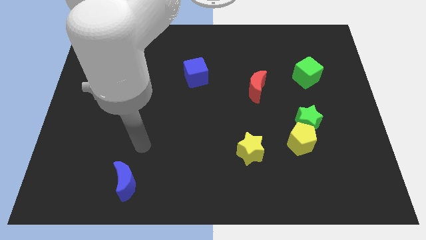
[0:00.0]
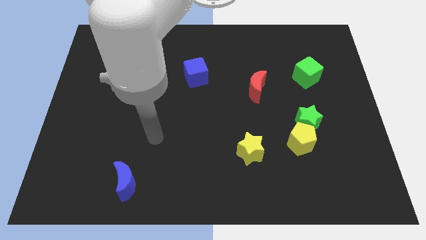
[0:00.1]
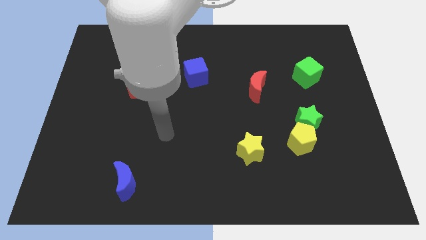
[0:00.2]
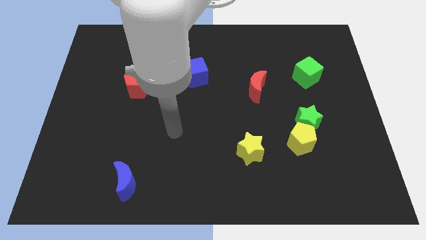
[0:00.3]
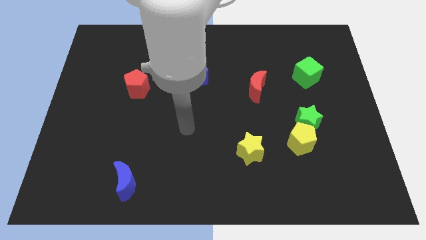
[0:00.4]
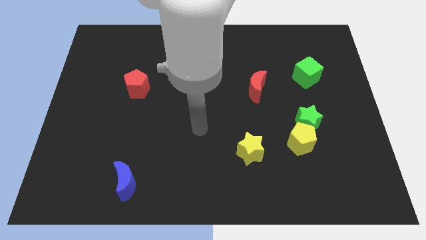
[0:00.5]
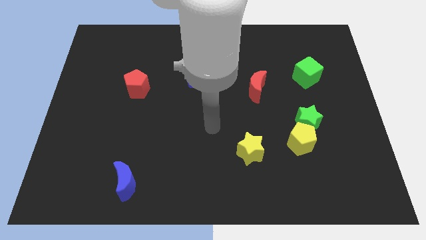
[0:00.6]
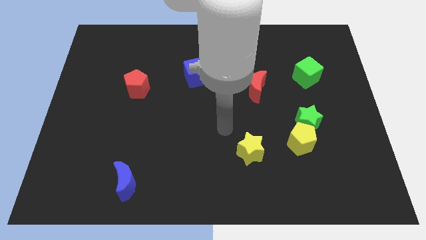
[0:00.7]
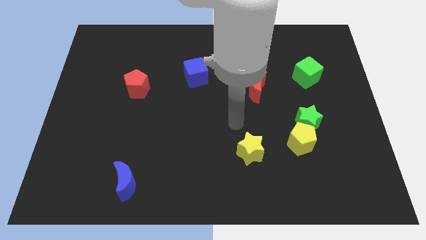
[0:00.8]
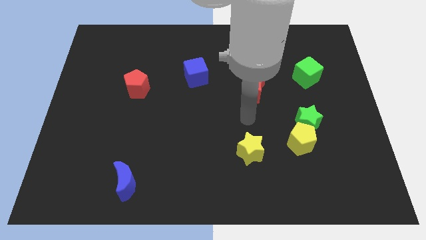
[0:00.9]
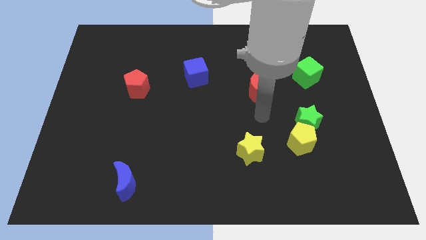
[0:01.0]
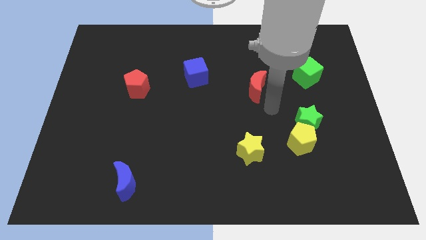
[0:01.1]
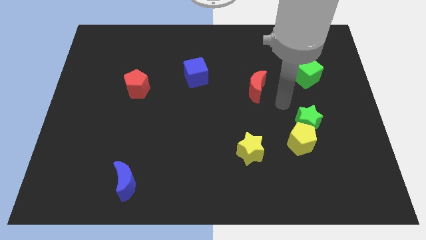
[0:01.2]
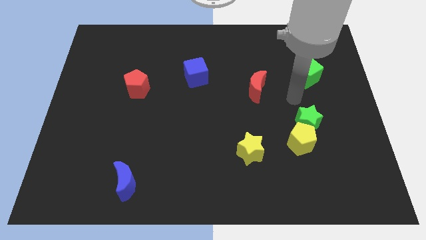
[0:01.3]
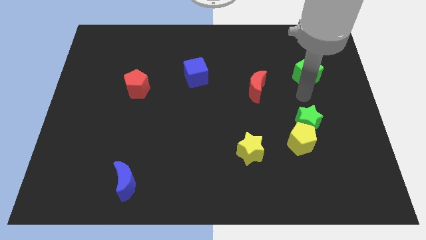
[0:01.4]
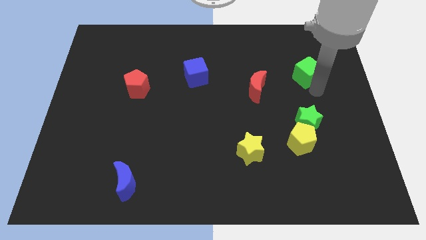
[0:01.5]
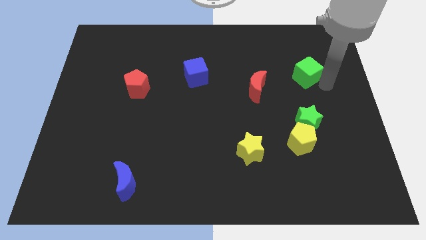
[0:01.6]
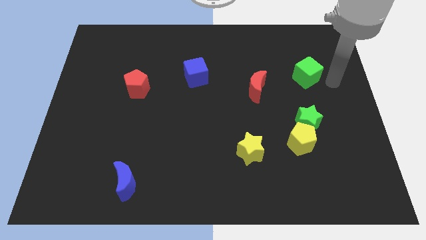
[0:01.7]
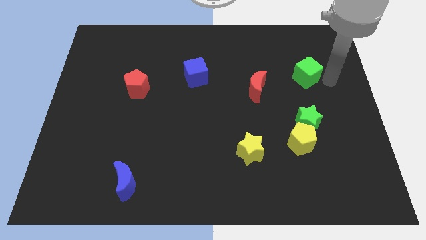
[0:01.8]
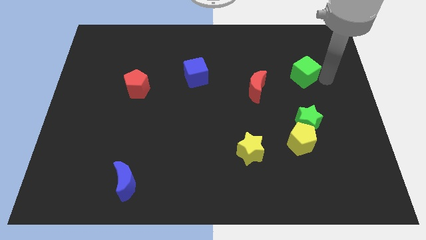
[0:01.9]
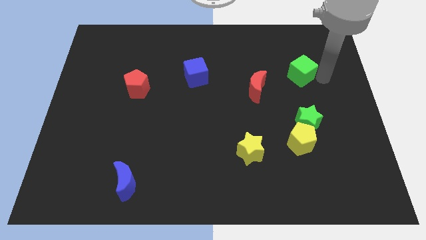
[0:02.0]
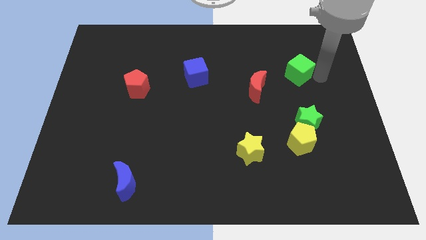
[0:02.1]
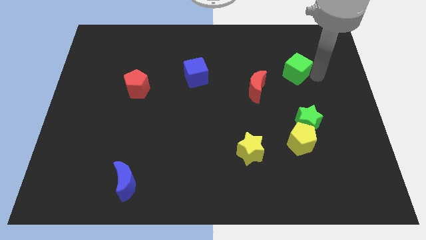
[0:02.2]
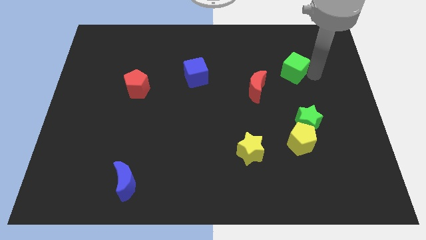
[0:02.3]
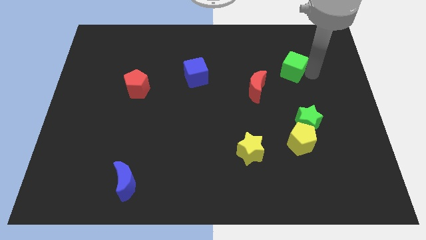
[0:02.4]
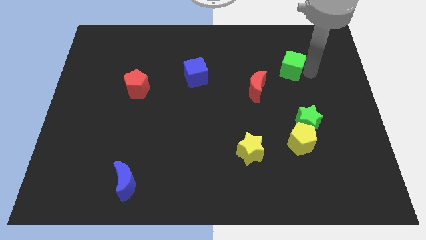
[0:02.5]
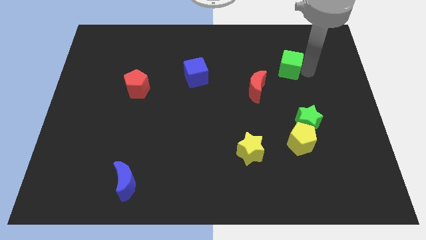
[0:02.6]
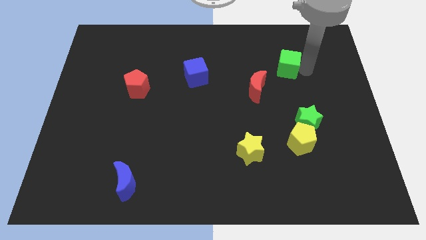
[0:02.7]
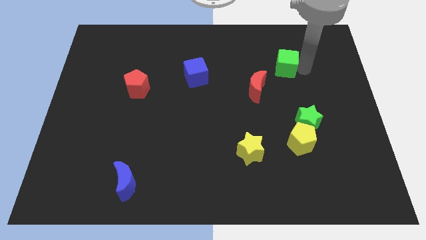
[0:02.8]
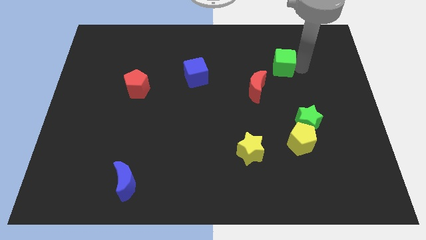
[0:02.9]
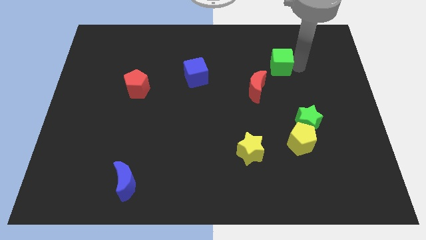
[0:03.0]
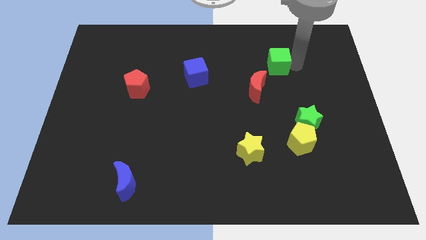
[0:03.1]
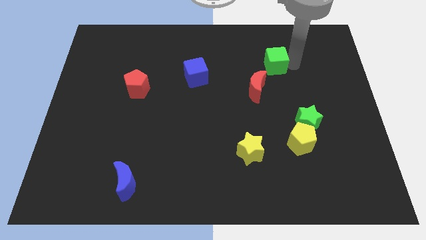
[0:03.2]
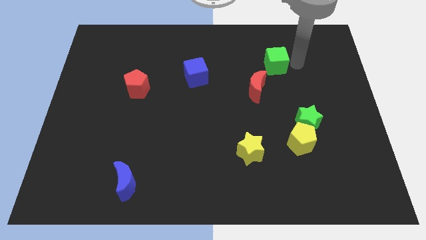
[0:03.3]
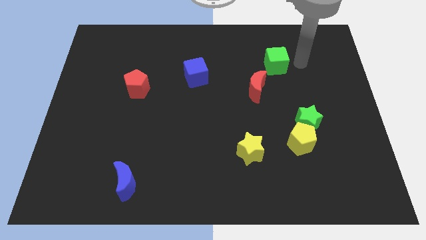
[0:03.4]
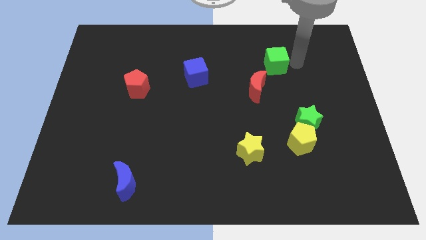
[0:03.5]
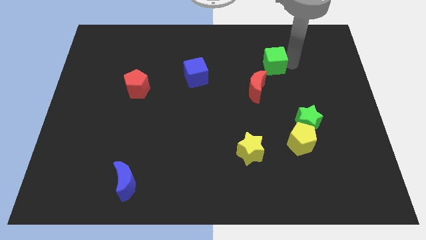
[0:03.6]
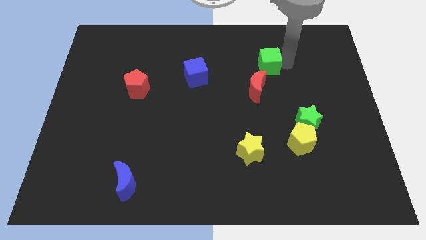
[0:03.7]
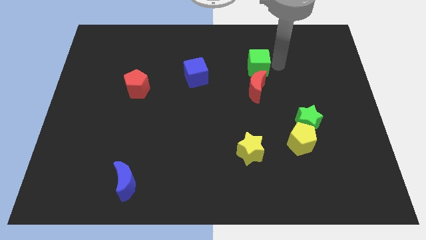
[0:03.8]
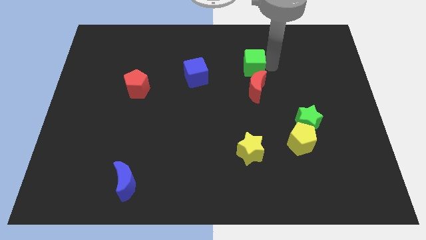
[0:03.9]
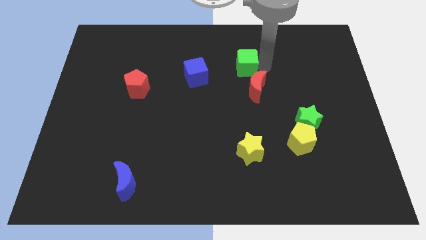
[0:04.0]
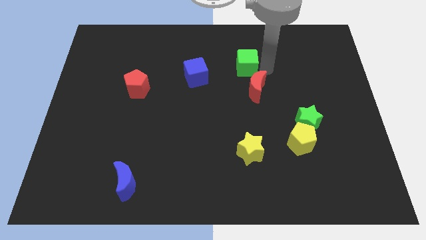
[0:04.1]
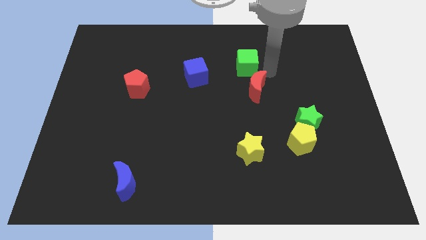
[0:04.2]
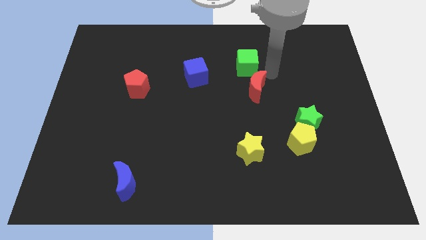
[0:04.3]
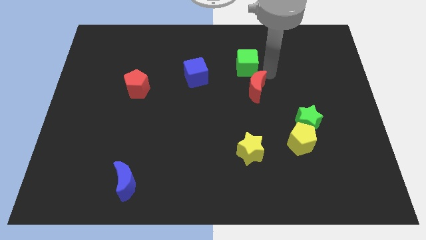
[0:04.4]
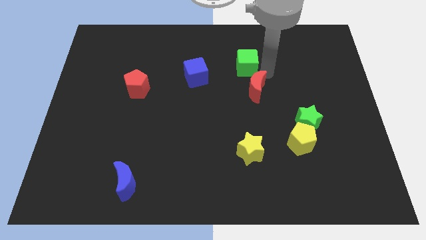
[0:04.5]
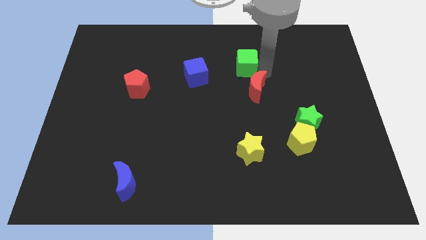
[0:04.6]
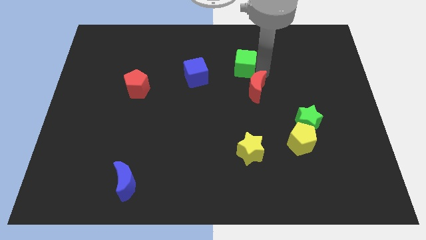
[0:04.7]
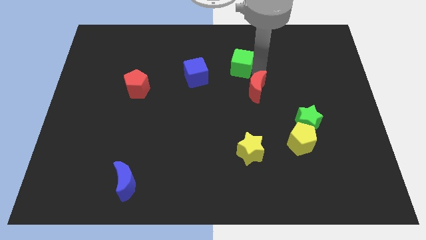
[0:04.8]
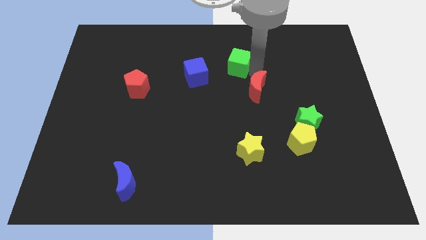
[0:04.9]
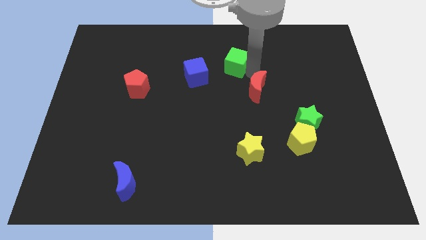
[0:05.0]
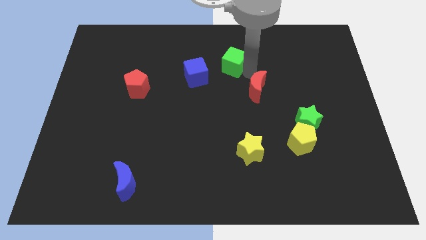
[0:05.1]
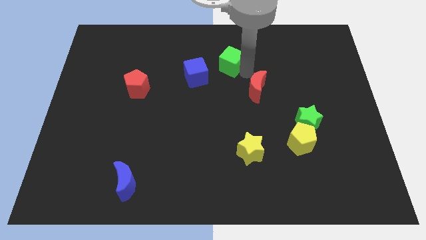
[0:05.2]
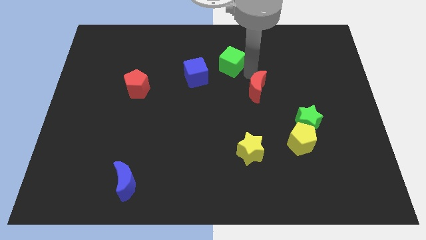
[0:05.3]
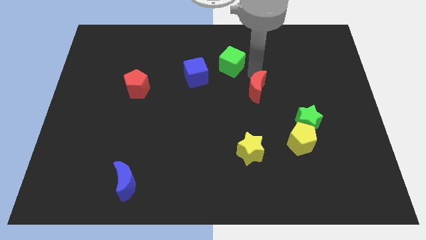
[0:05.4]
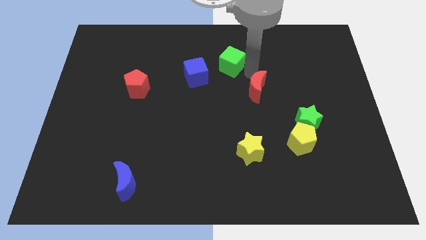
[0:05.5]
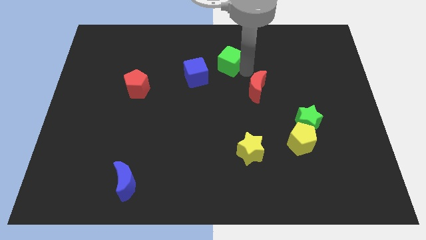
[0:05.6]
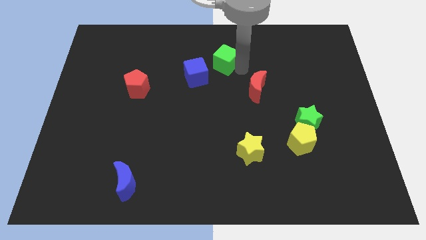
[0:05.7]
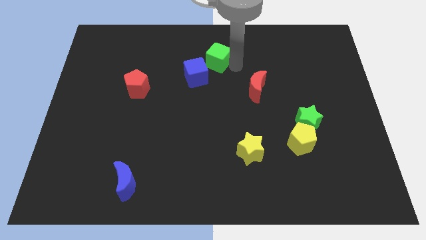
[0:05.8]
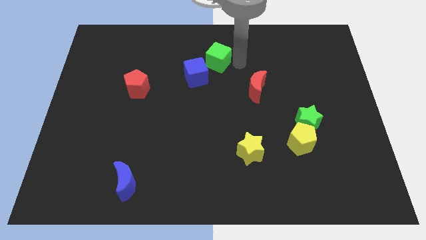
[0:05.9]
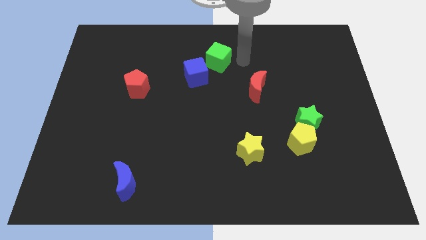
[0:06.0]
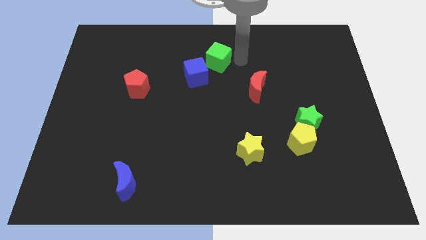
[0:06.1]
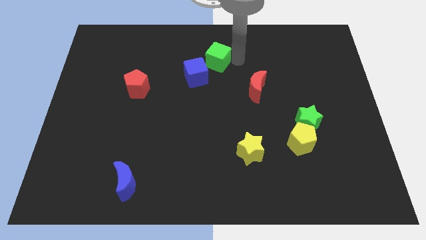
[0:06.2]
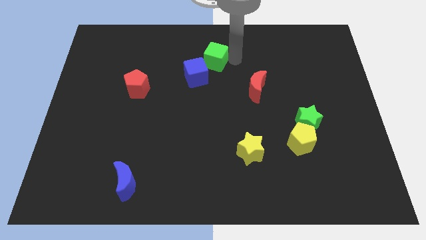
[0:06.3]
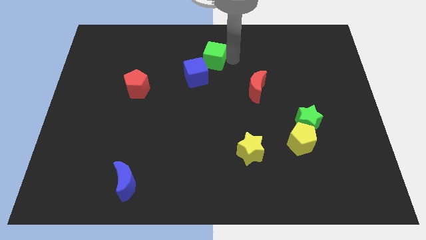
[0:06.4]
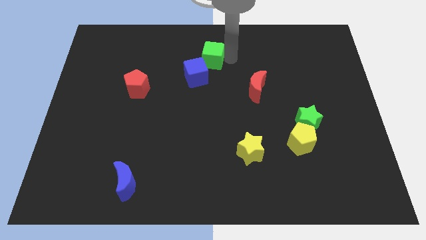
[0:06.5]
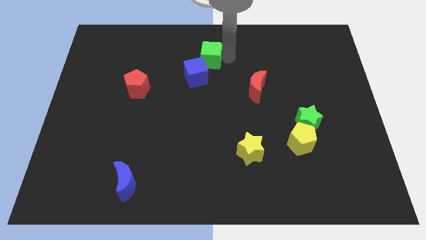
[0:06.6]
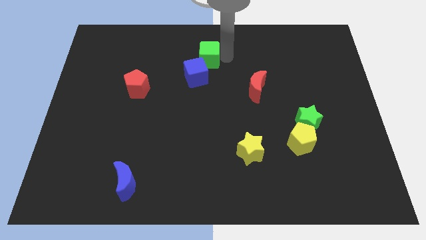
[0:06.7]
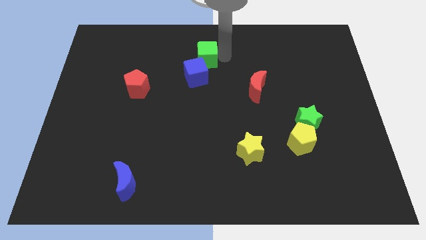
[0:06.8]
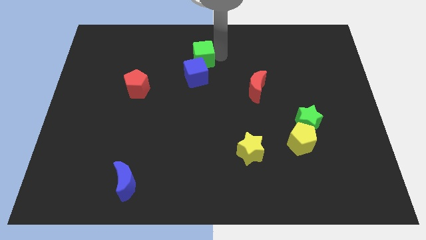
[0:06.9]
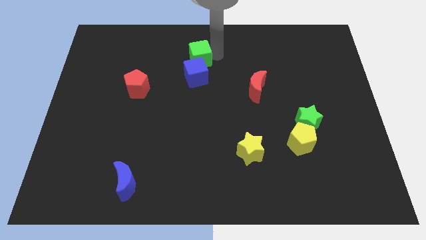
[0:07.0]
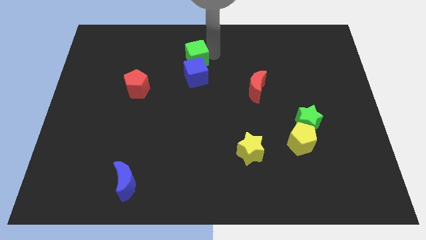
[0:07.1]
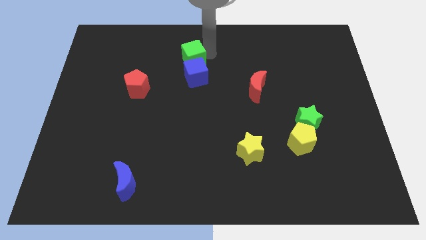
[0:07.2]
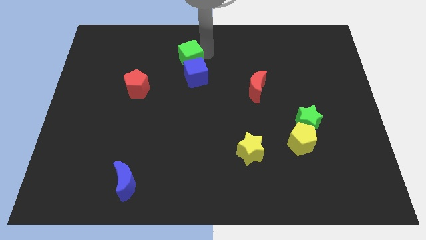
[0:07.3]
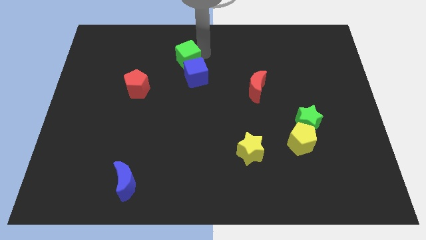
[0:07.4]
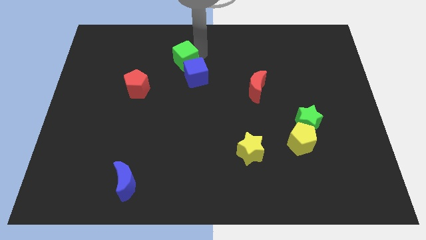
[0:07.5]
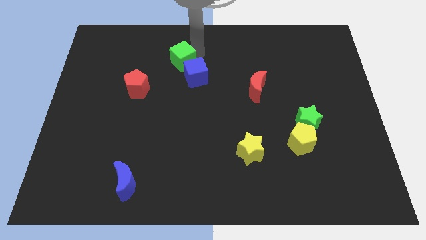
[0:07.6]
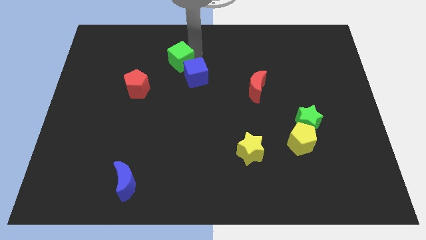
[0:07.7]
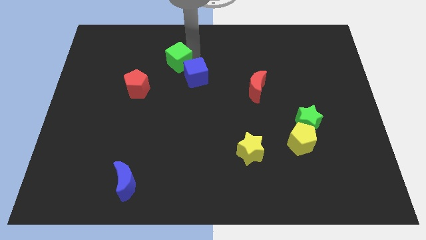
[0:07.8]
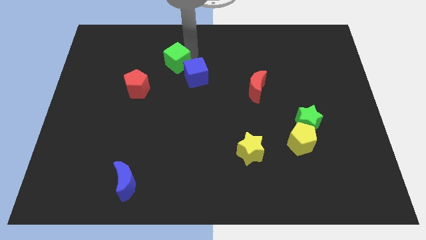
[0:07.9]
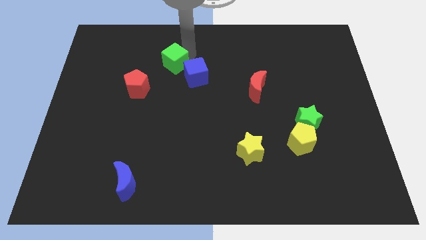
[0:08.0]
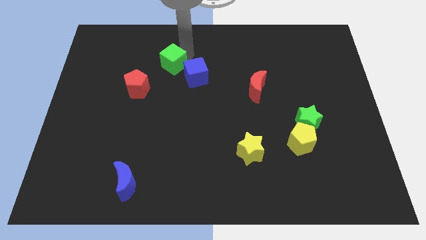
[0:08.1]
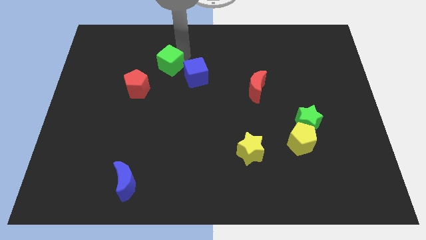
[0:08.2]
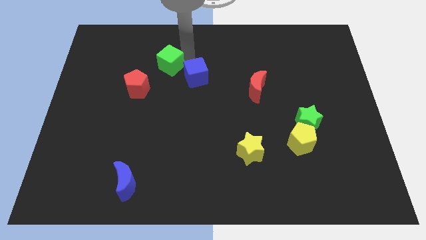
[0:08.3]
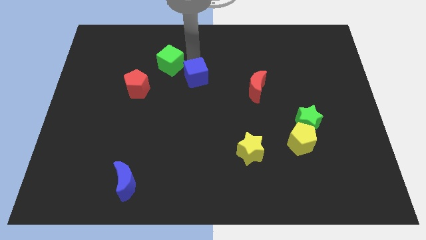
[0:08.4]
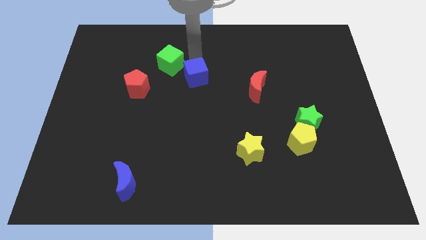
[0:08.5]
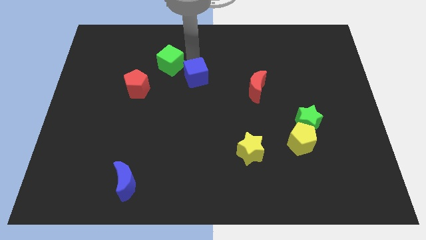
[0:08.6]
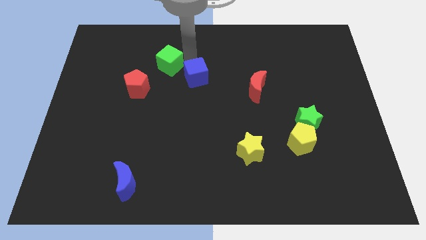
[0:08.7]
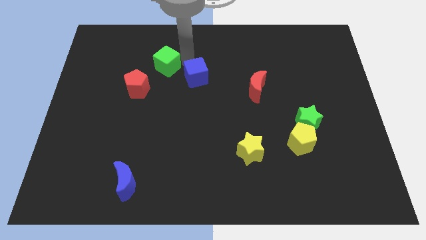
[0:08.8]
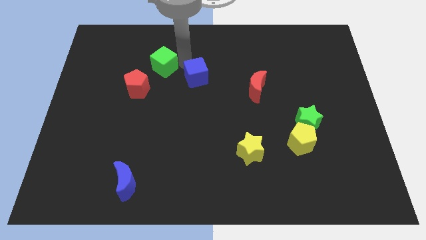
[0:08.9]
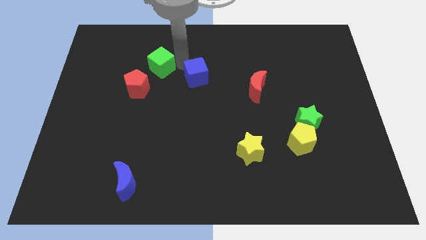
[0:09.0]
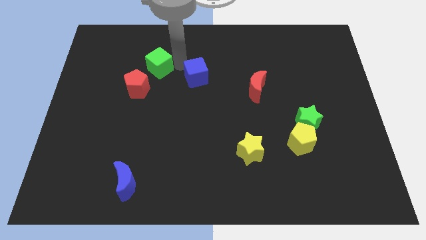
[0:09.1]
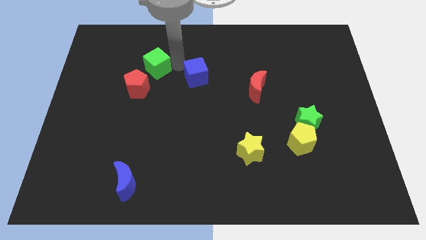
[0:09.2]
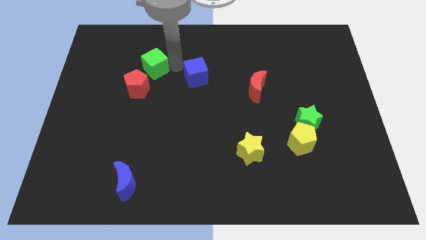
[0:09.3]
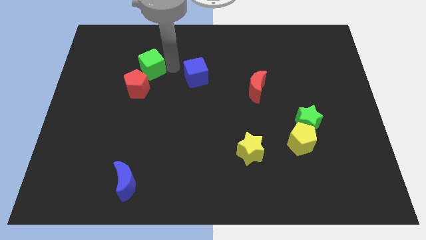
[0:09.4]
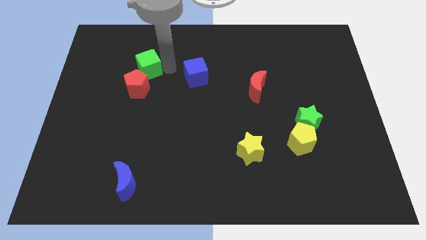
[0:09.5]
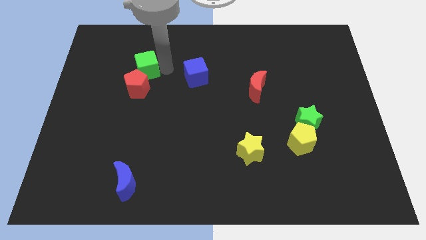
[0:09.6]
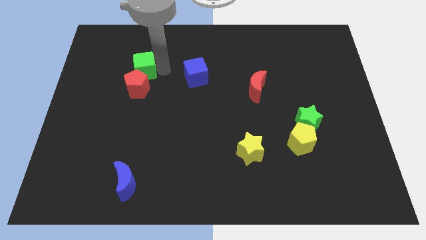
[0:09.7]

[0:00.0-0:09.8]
move the green cube to the top left side of the red pentagon
